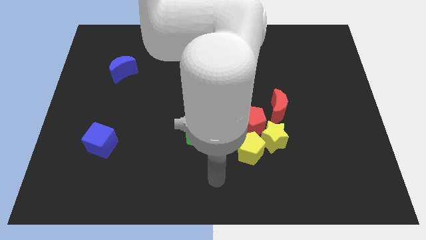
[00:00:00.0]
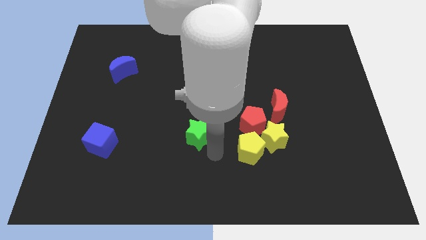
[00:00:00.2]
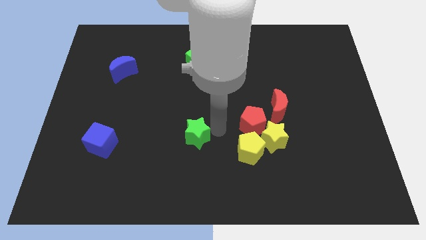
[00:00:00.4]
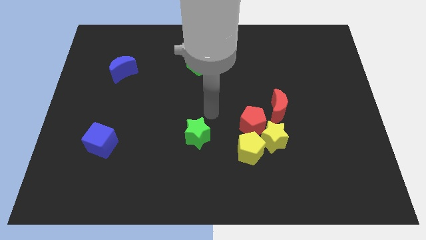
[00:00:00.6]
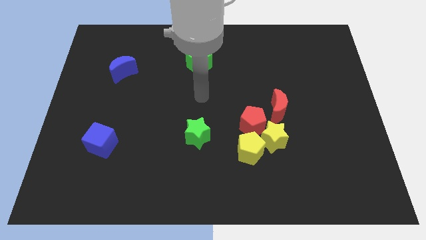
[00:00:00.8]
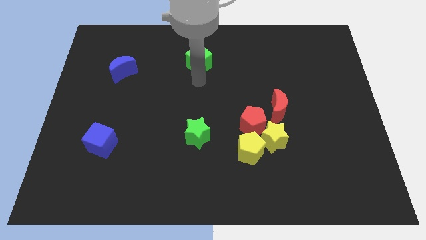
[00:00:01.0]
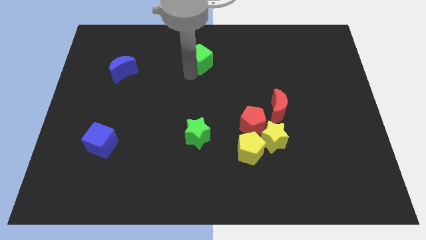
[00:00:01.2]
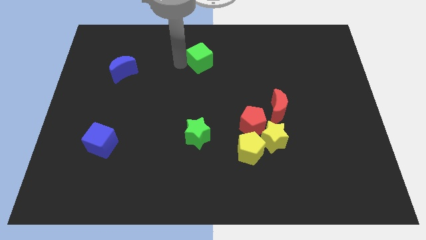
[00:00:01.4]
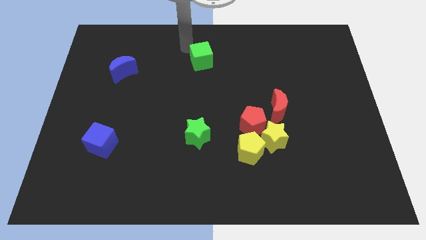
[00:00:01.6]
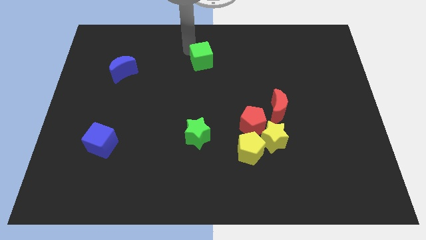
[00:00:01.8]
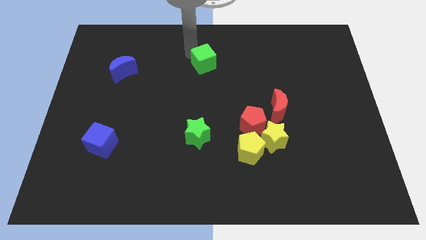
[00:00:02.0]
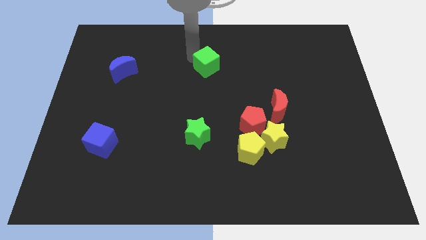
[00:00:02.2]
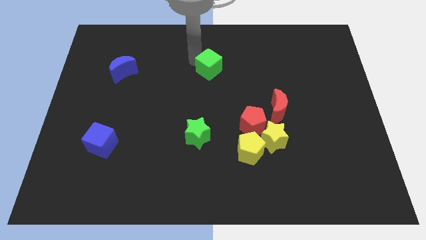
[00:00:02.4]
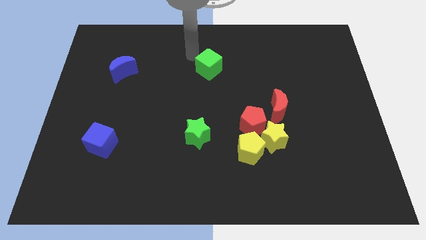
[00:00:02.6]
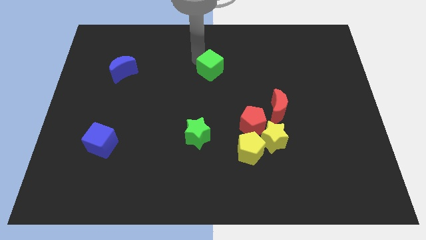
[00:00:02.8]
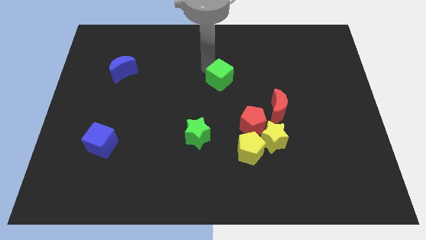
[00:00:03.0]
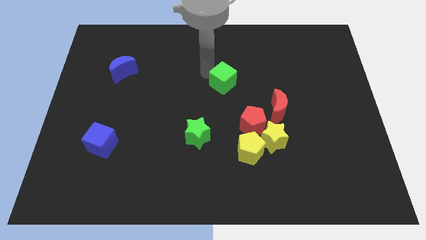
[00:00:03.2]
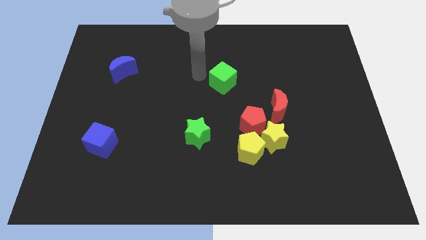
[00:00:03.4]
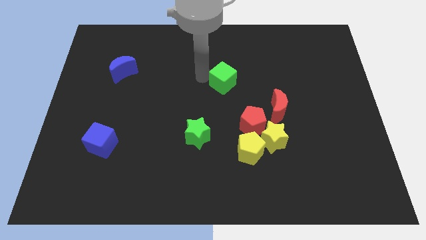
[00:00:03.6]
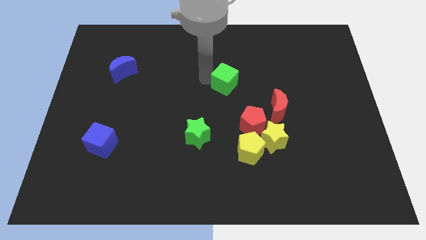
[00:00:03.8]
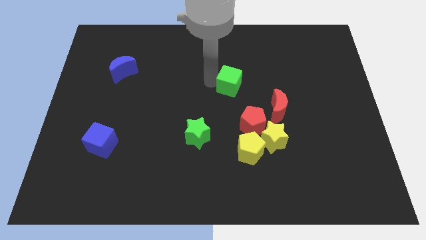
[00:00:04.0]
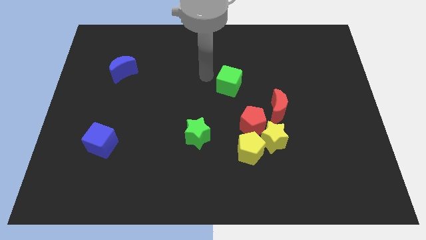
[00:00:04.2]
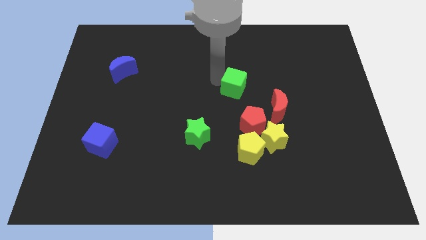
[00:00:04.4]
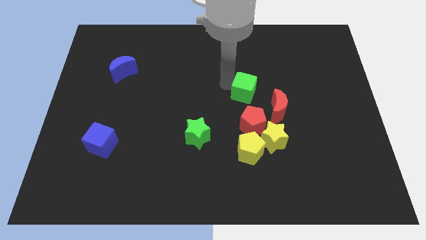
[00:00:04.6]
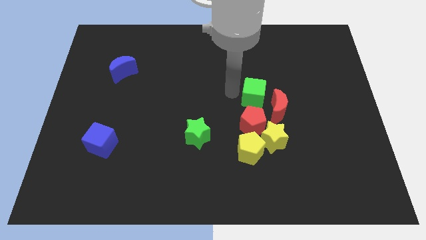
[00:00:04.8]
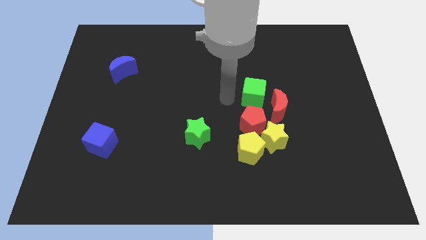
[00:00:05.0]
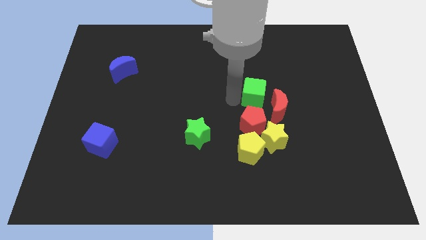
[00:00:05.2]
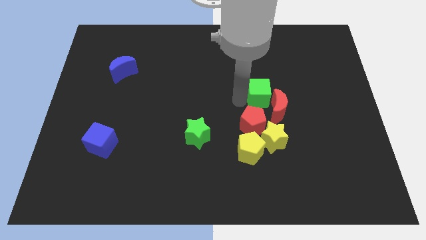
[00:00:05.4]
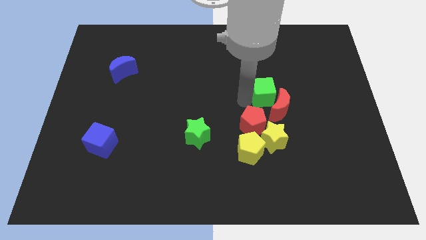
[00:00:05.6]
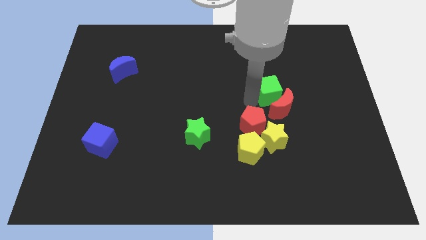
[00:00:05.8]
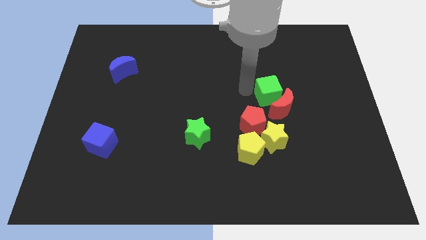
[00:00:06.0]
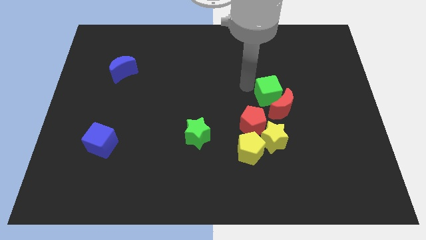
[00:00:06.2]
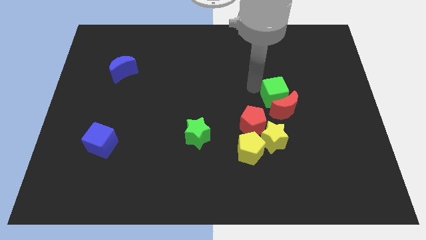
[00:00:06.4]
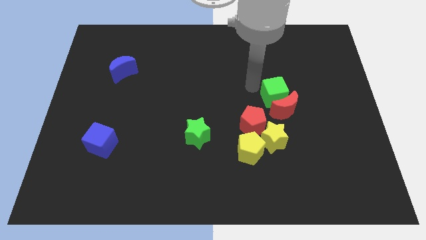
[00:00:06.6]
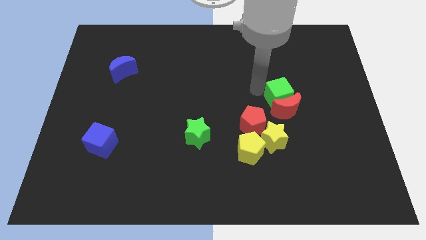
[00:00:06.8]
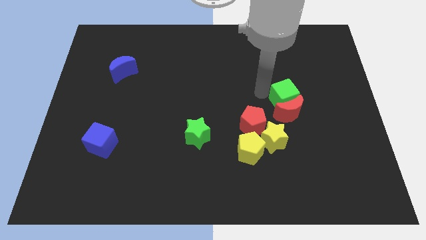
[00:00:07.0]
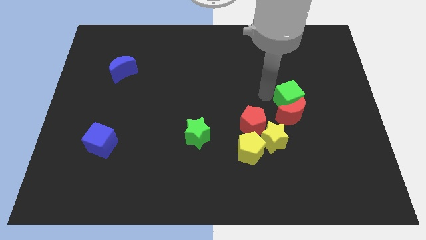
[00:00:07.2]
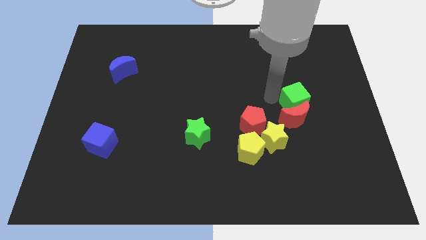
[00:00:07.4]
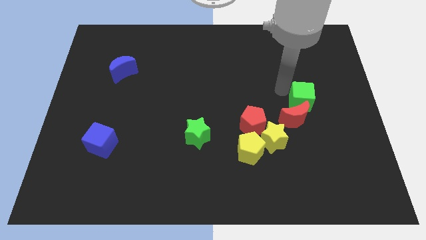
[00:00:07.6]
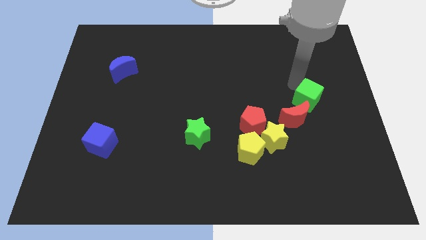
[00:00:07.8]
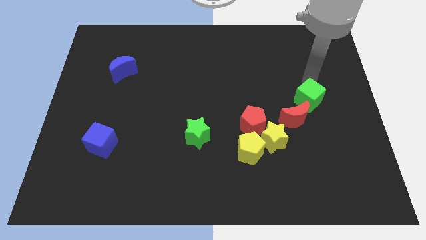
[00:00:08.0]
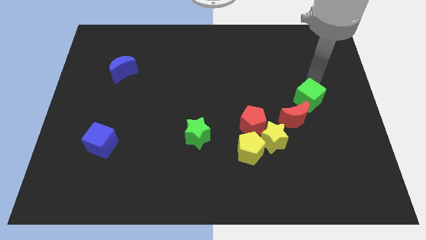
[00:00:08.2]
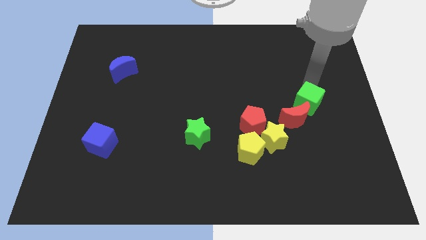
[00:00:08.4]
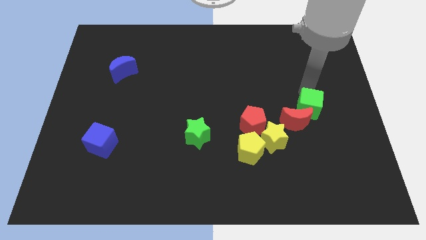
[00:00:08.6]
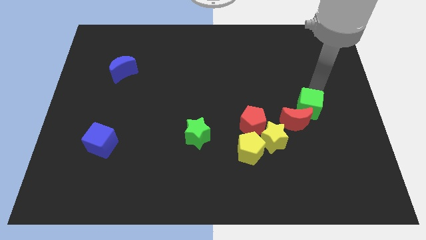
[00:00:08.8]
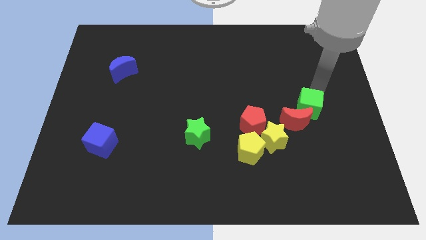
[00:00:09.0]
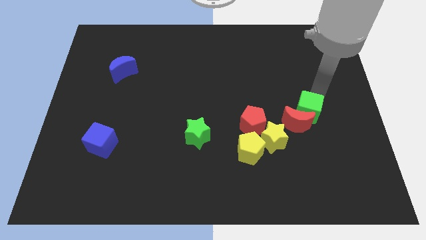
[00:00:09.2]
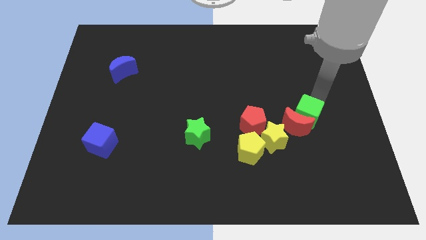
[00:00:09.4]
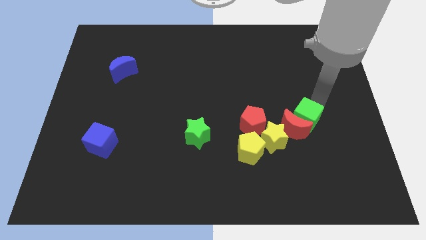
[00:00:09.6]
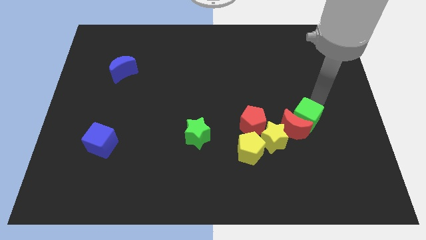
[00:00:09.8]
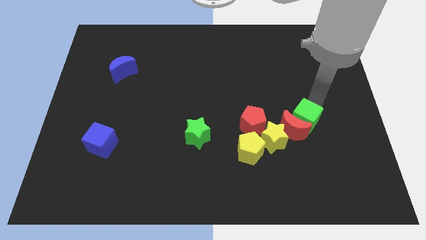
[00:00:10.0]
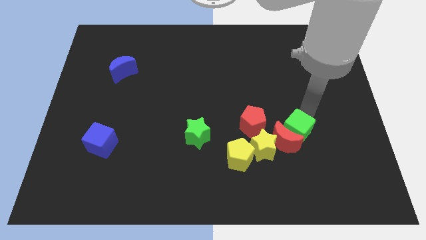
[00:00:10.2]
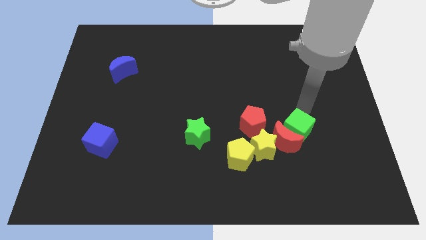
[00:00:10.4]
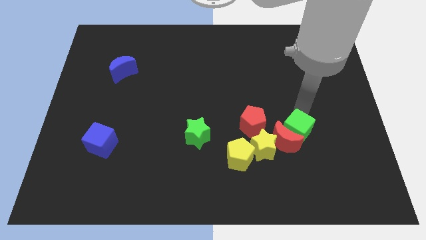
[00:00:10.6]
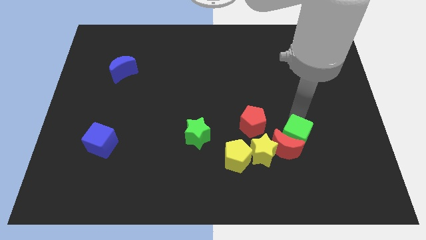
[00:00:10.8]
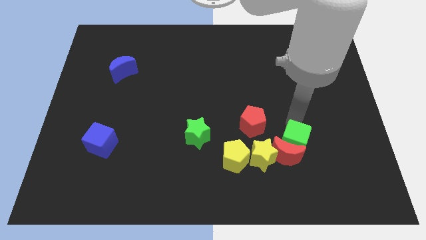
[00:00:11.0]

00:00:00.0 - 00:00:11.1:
slide the green cube to the right of the yellow pentagon

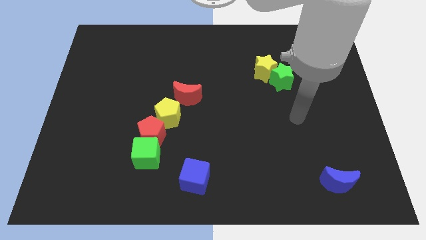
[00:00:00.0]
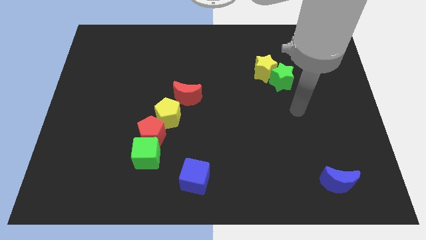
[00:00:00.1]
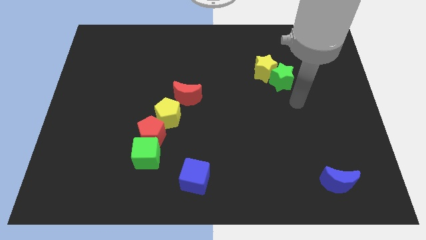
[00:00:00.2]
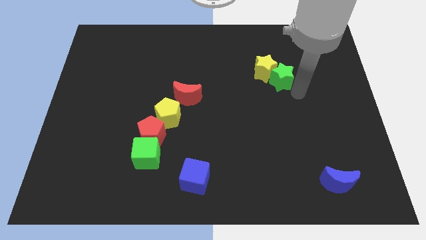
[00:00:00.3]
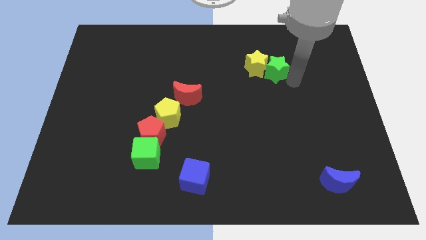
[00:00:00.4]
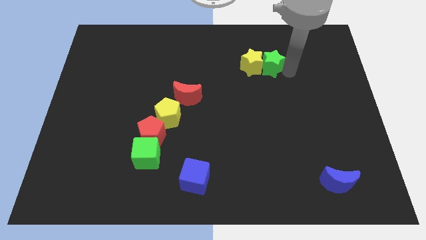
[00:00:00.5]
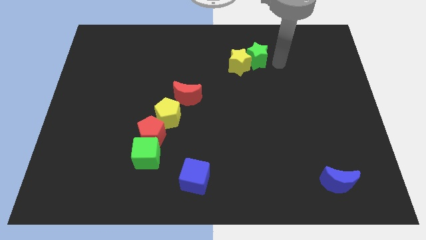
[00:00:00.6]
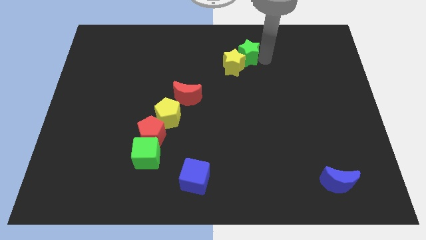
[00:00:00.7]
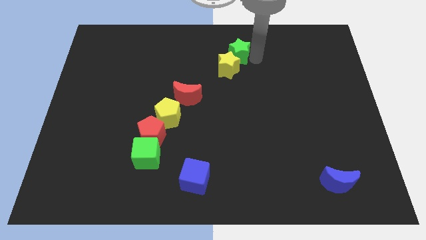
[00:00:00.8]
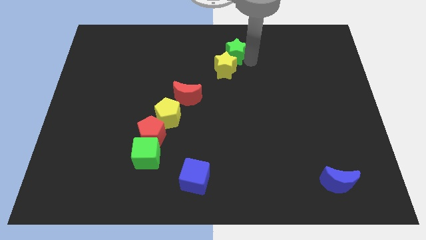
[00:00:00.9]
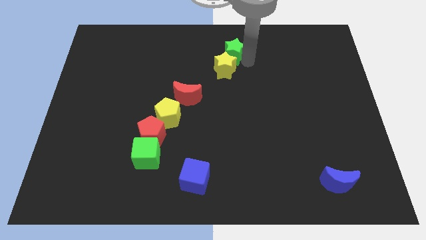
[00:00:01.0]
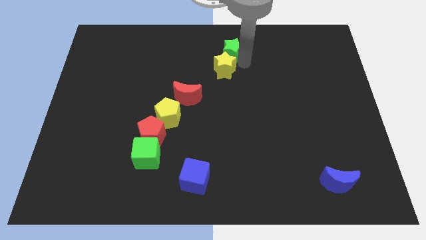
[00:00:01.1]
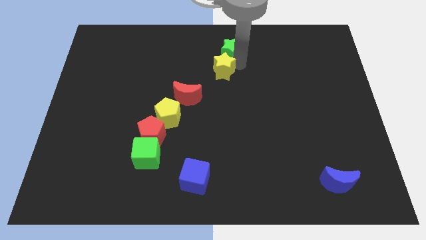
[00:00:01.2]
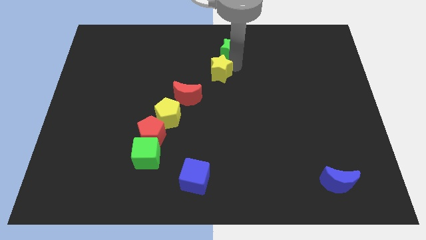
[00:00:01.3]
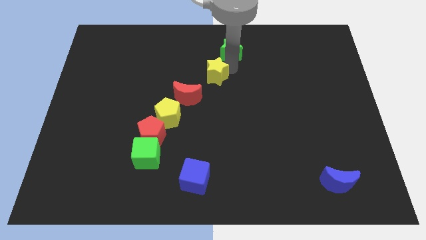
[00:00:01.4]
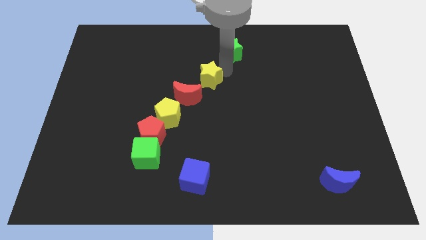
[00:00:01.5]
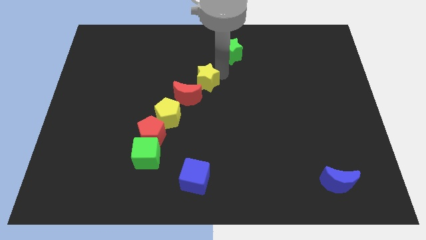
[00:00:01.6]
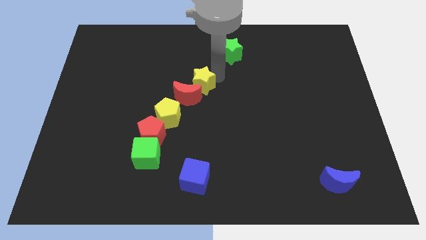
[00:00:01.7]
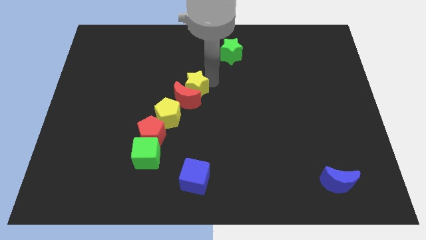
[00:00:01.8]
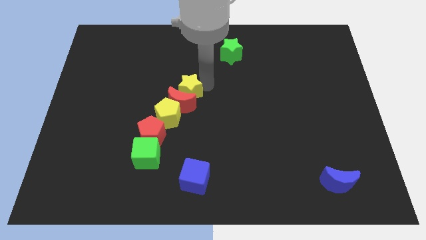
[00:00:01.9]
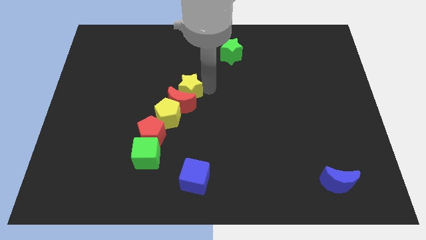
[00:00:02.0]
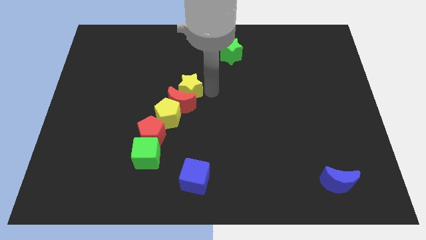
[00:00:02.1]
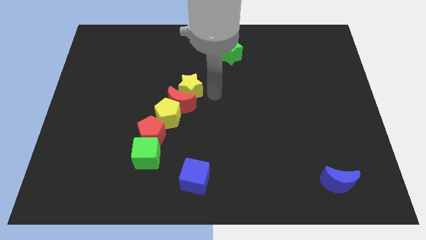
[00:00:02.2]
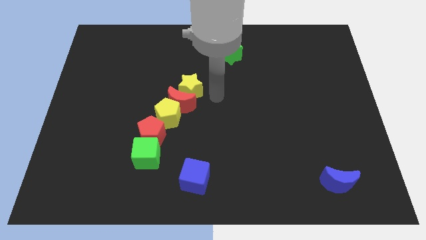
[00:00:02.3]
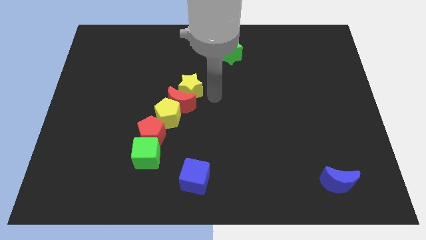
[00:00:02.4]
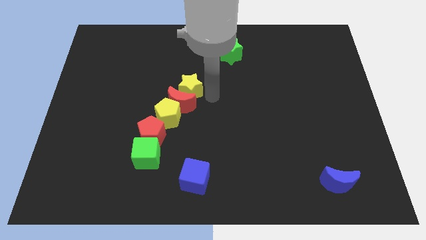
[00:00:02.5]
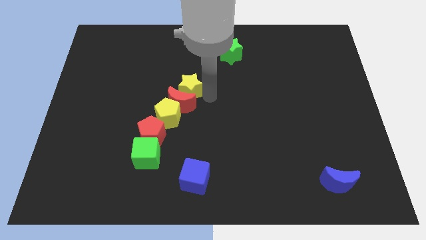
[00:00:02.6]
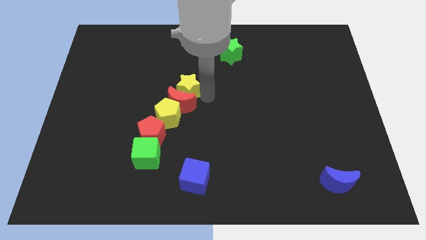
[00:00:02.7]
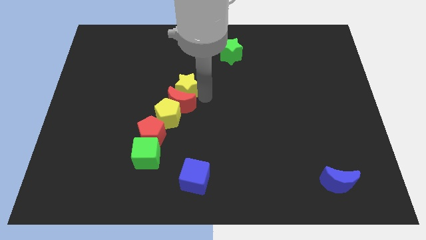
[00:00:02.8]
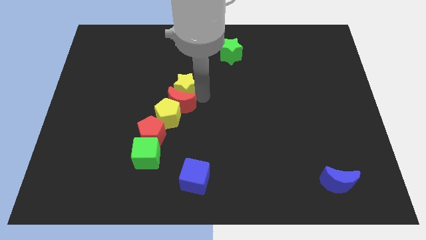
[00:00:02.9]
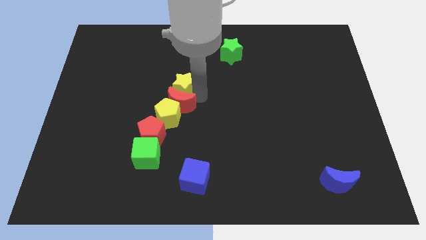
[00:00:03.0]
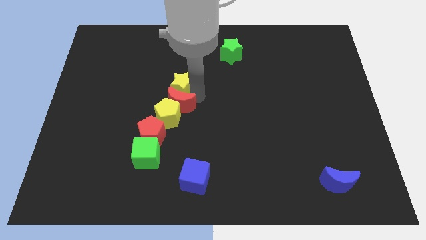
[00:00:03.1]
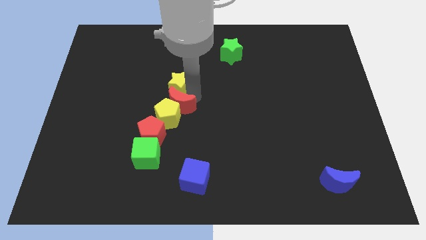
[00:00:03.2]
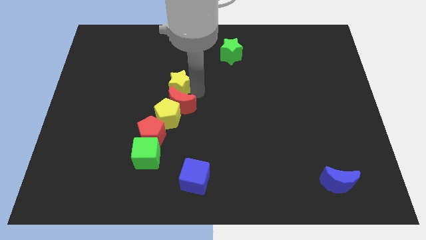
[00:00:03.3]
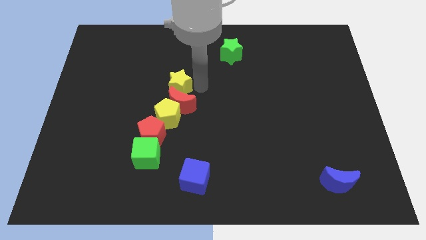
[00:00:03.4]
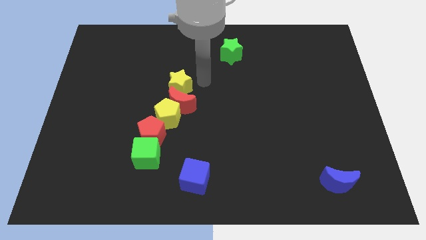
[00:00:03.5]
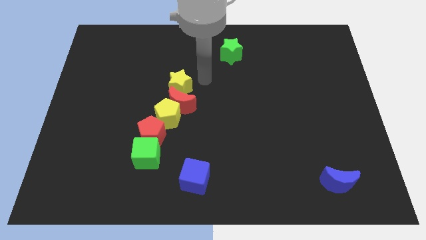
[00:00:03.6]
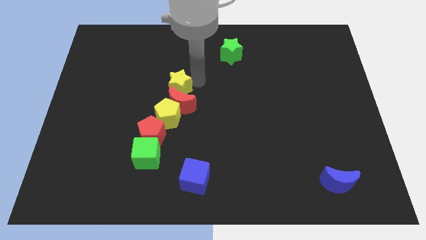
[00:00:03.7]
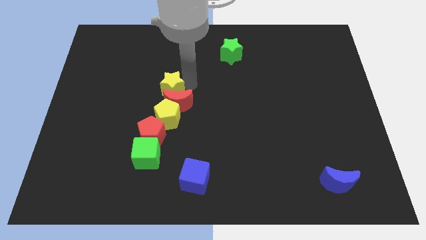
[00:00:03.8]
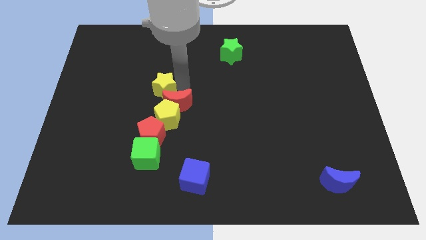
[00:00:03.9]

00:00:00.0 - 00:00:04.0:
slide the yellow star diagonally up and to the left of the yellow pentagon
